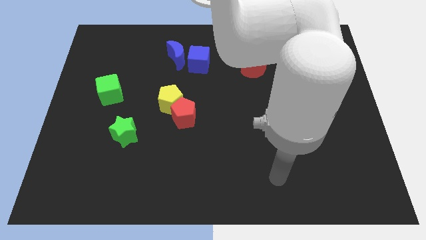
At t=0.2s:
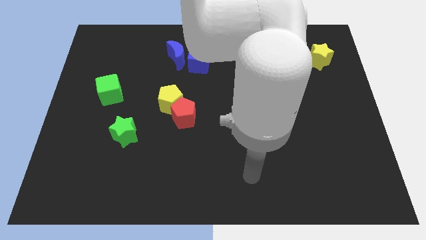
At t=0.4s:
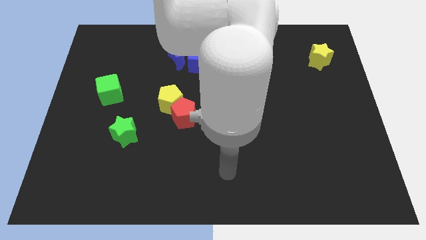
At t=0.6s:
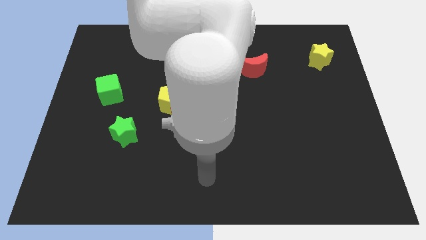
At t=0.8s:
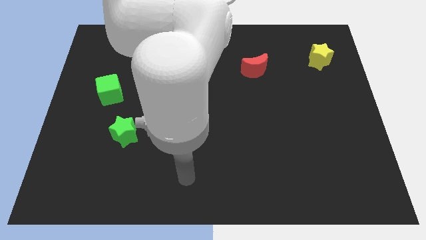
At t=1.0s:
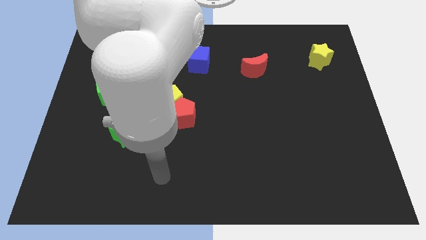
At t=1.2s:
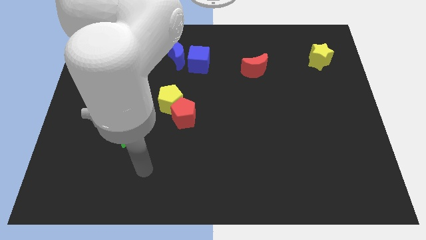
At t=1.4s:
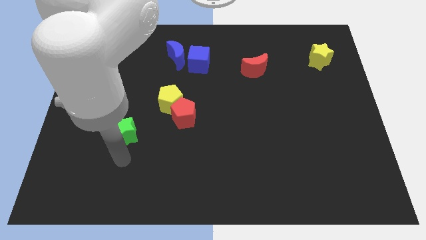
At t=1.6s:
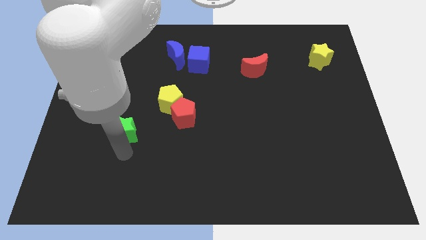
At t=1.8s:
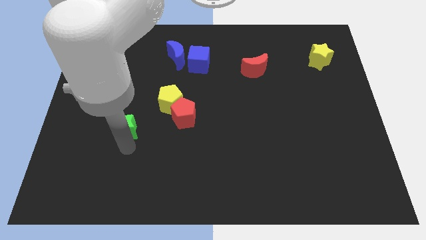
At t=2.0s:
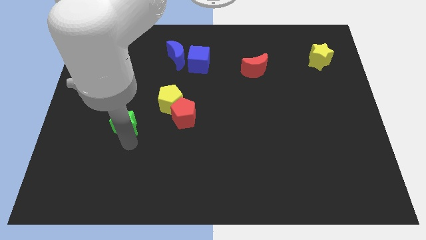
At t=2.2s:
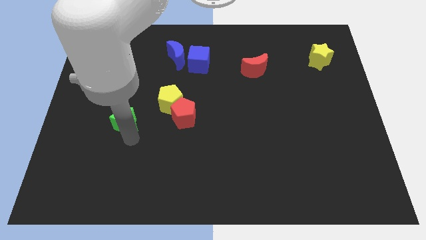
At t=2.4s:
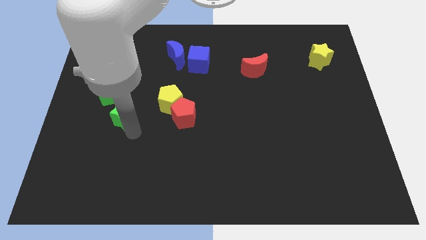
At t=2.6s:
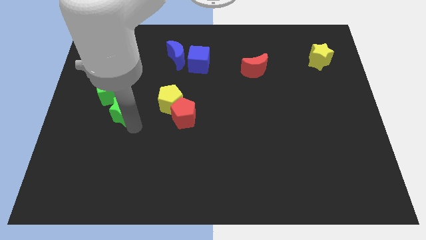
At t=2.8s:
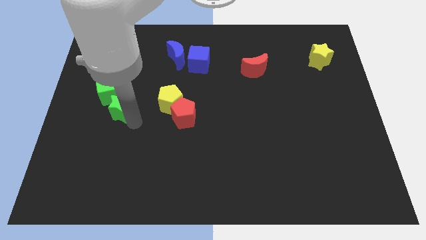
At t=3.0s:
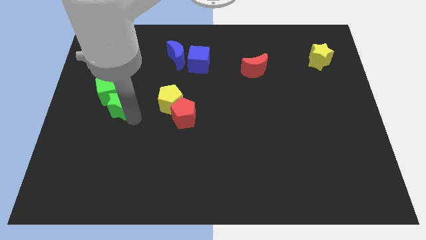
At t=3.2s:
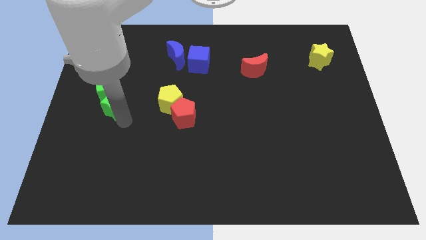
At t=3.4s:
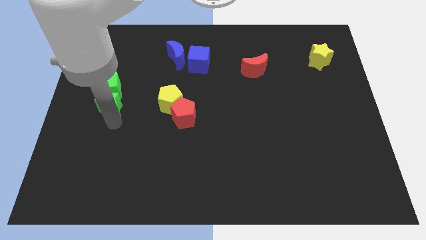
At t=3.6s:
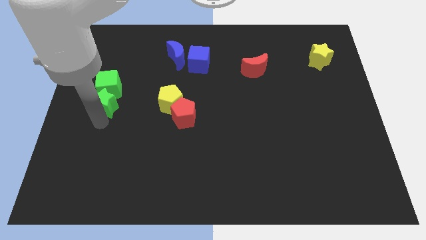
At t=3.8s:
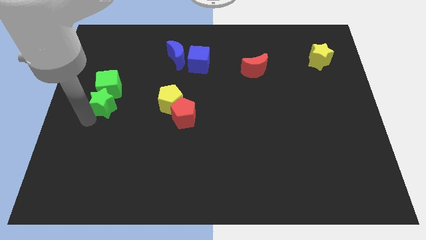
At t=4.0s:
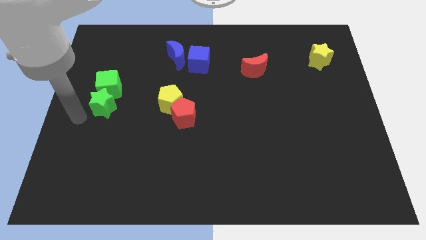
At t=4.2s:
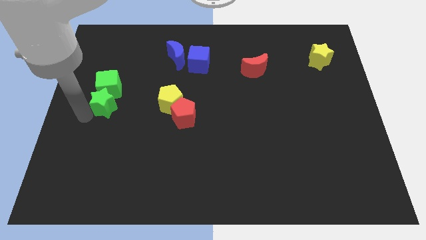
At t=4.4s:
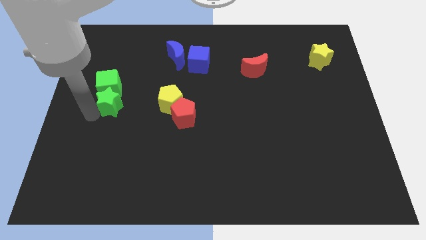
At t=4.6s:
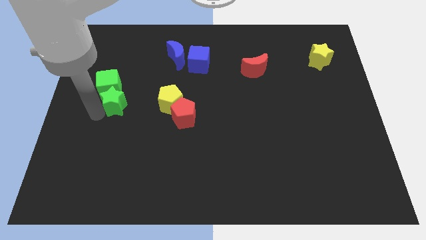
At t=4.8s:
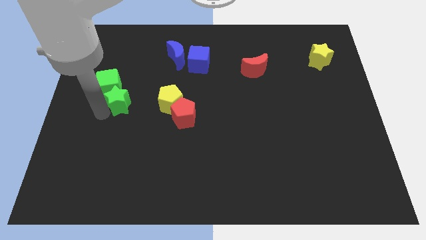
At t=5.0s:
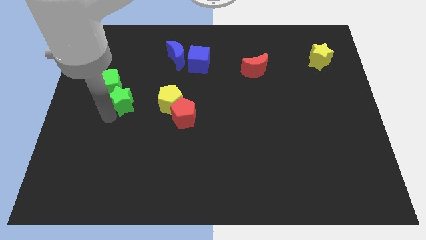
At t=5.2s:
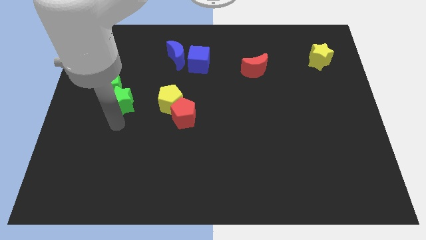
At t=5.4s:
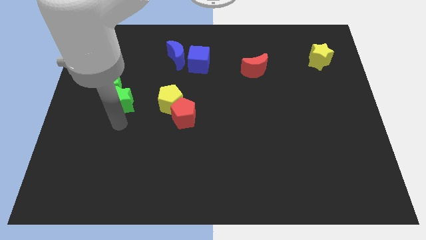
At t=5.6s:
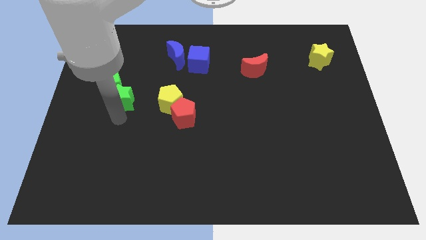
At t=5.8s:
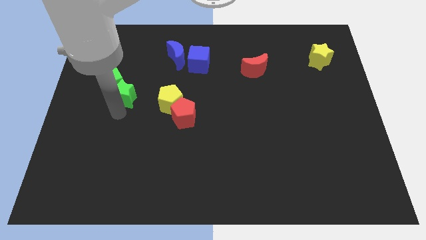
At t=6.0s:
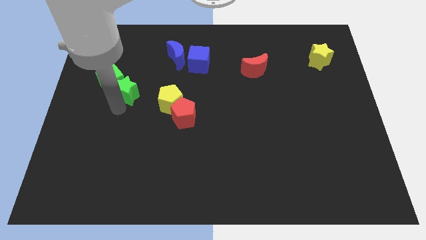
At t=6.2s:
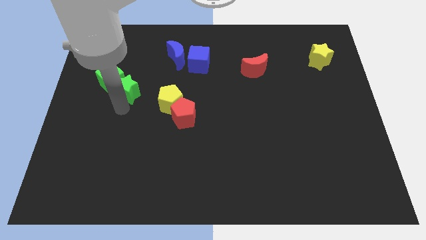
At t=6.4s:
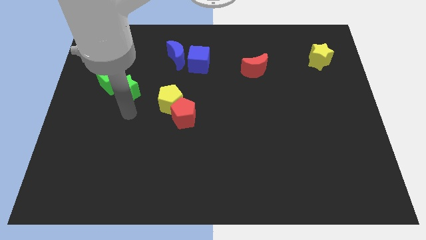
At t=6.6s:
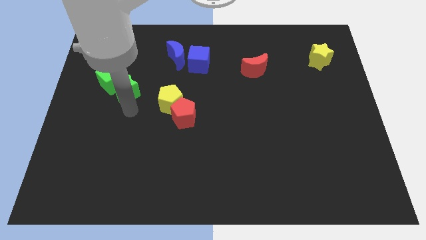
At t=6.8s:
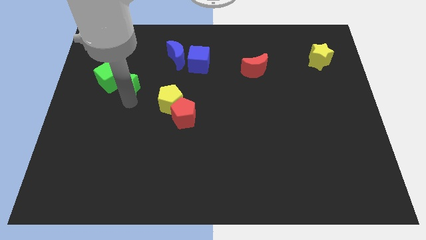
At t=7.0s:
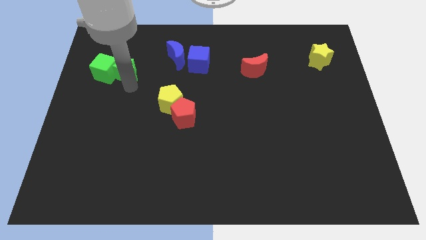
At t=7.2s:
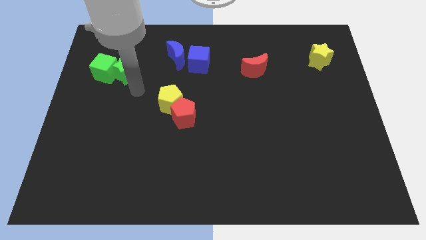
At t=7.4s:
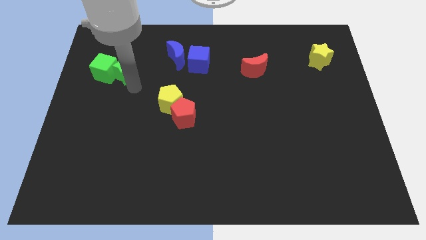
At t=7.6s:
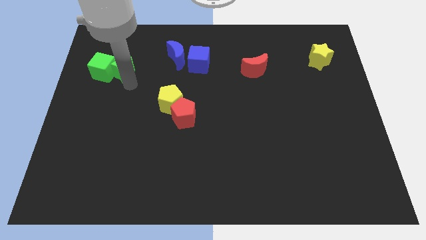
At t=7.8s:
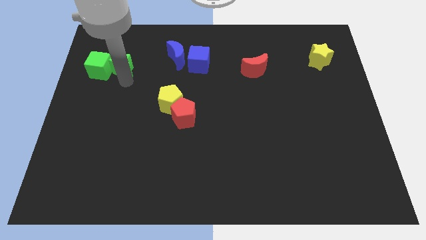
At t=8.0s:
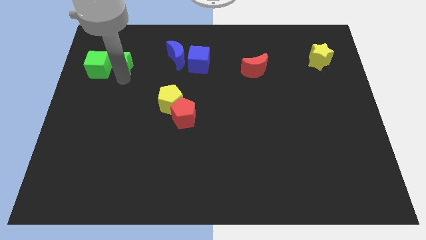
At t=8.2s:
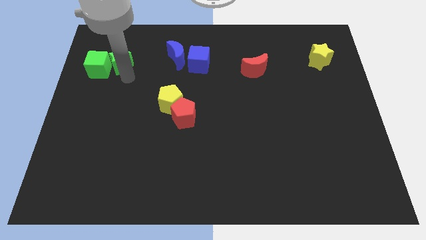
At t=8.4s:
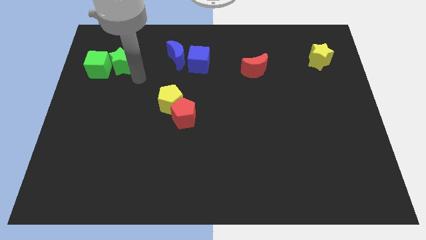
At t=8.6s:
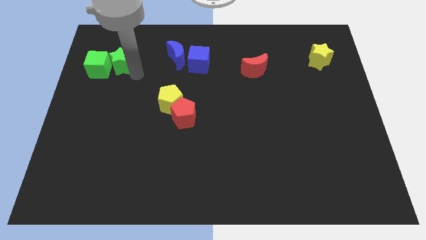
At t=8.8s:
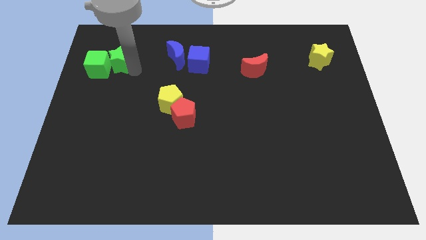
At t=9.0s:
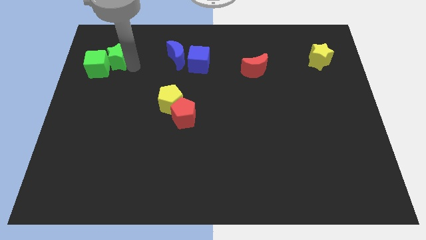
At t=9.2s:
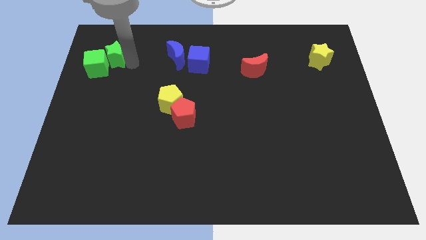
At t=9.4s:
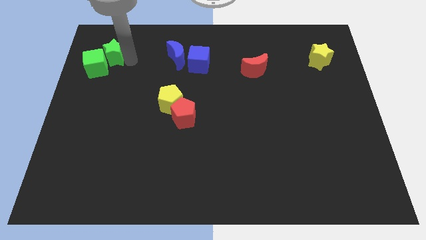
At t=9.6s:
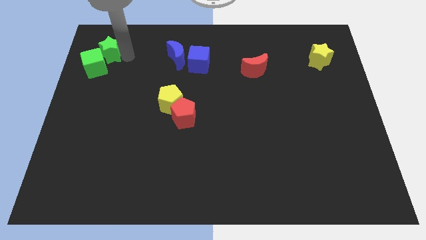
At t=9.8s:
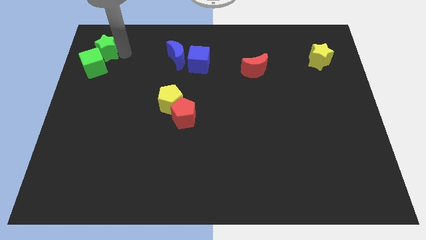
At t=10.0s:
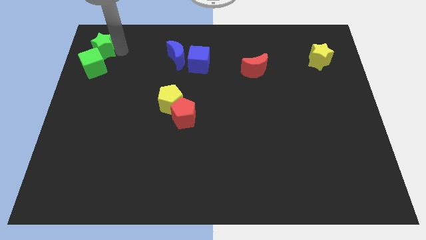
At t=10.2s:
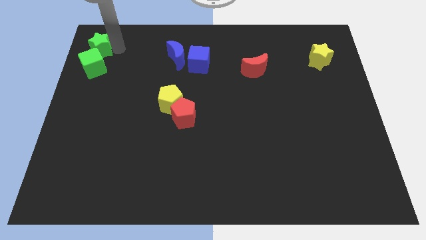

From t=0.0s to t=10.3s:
push the green star to the upper left corner
